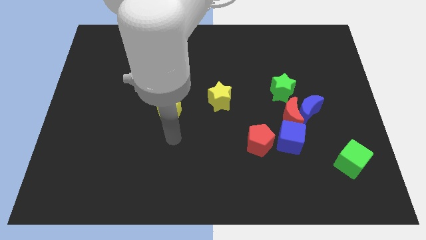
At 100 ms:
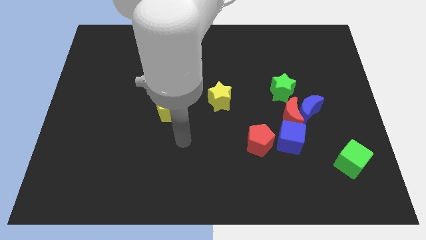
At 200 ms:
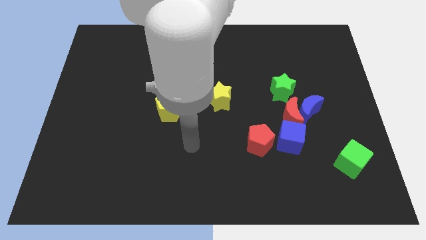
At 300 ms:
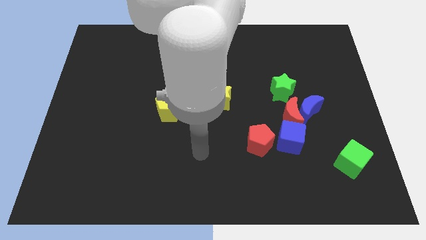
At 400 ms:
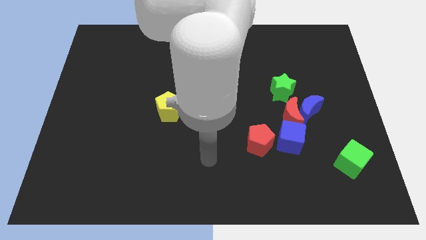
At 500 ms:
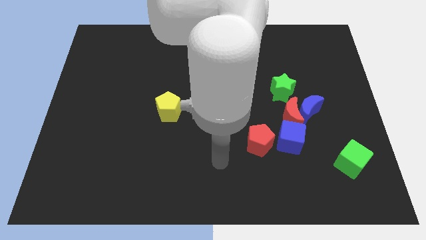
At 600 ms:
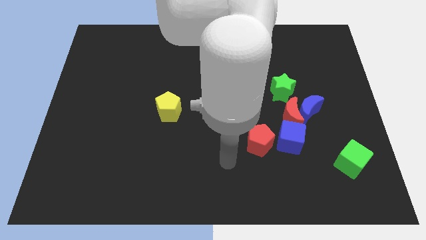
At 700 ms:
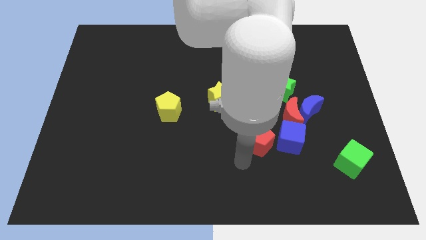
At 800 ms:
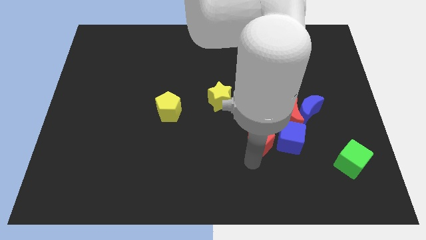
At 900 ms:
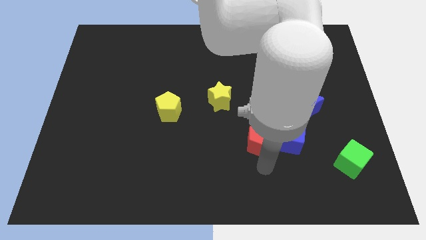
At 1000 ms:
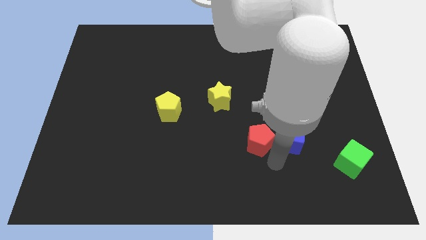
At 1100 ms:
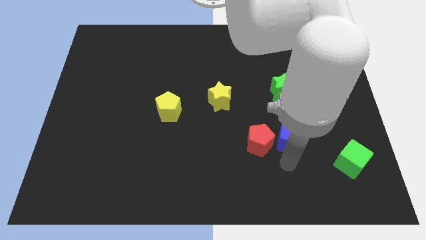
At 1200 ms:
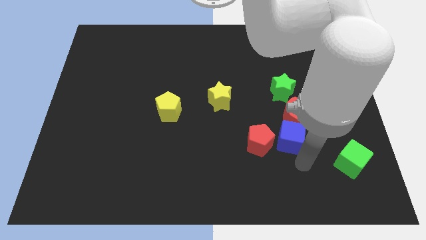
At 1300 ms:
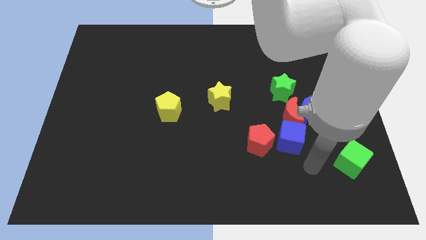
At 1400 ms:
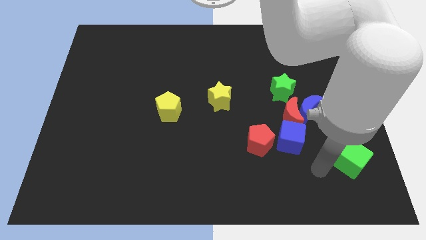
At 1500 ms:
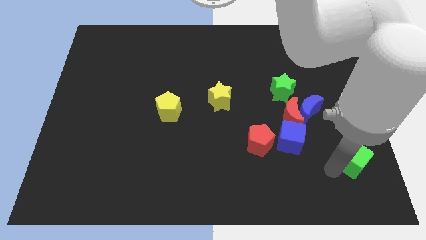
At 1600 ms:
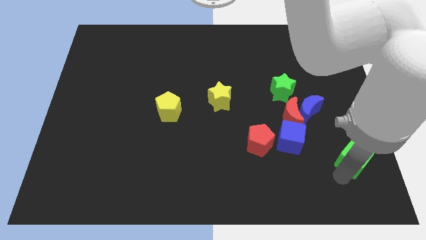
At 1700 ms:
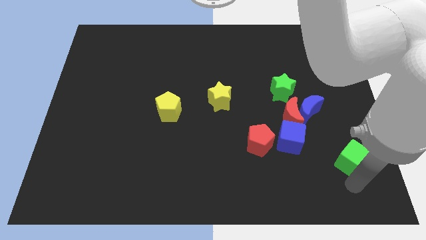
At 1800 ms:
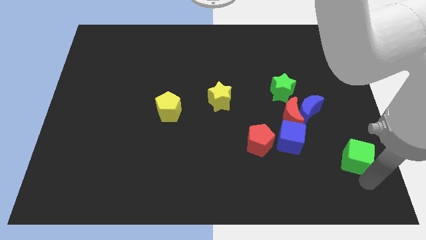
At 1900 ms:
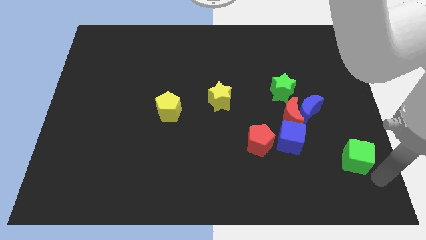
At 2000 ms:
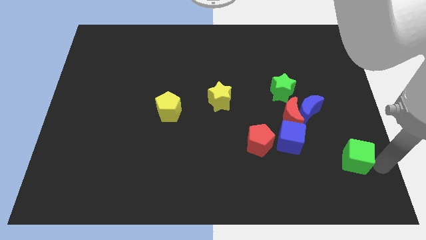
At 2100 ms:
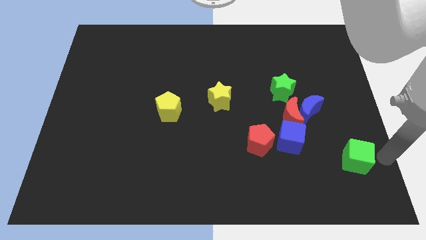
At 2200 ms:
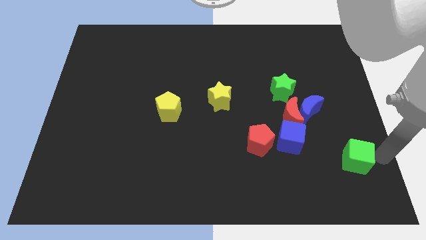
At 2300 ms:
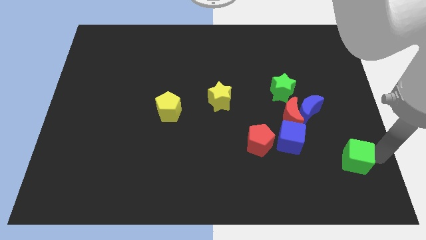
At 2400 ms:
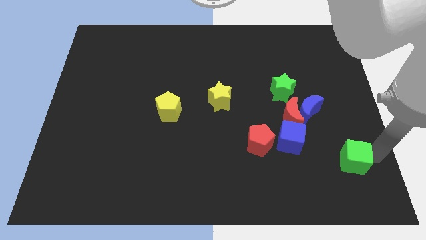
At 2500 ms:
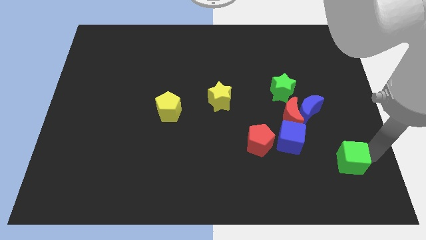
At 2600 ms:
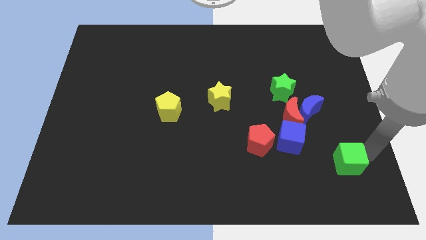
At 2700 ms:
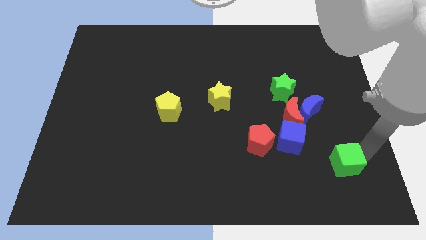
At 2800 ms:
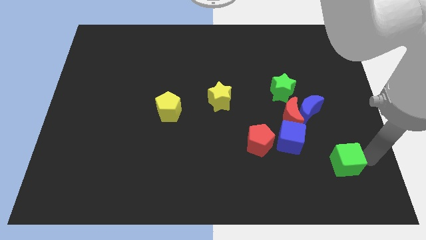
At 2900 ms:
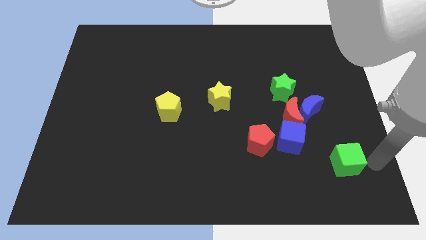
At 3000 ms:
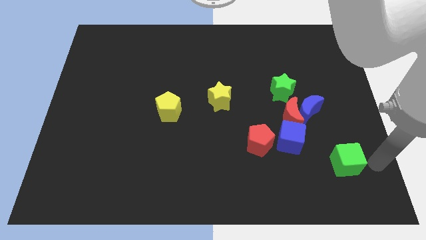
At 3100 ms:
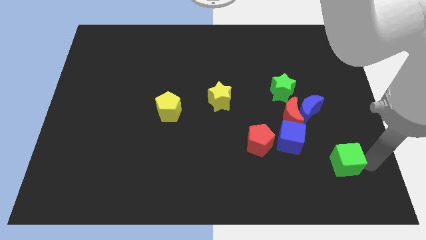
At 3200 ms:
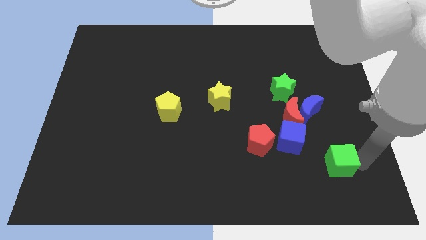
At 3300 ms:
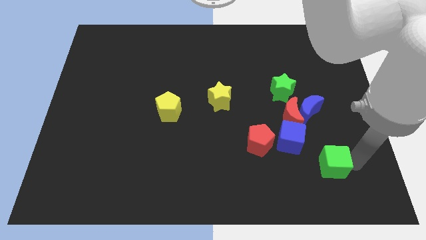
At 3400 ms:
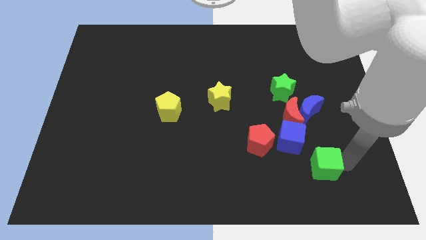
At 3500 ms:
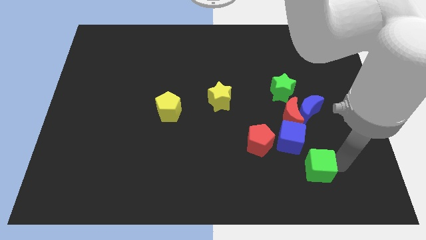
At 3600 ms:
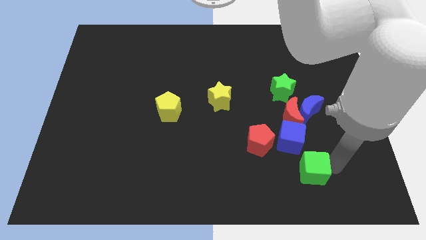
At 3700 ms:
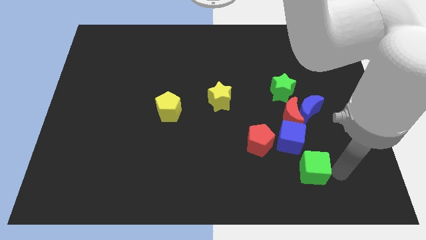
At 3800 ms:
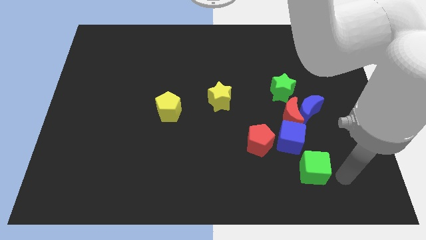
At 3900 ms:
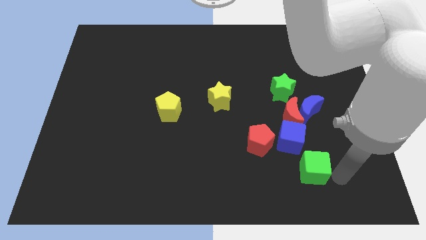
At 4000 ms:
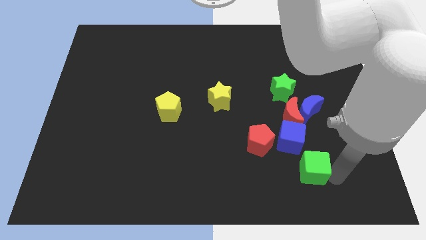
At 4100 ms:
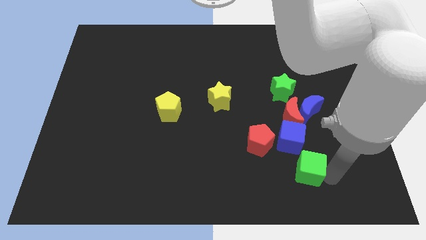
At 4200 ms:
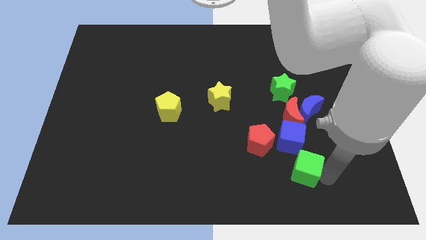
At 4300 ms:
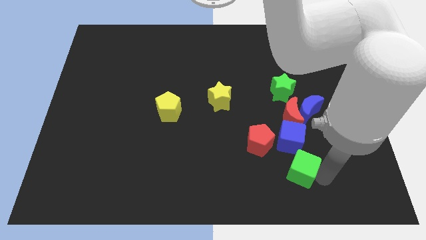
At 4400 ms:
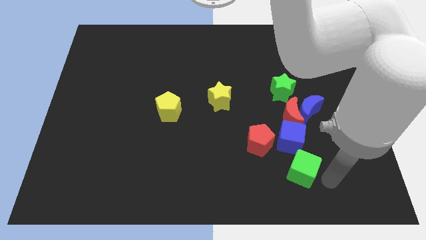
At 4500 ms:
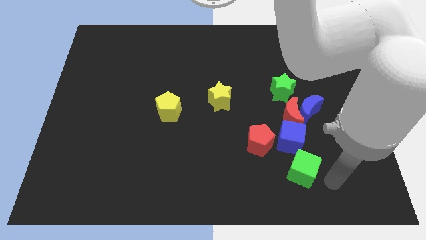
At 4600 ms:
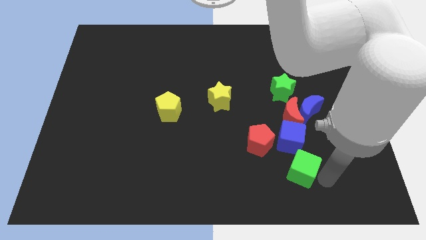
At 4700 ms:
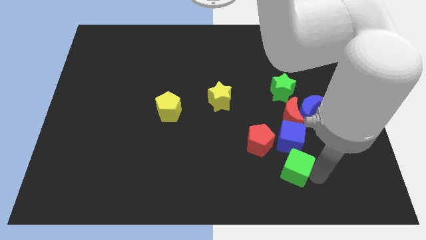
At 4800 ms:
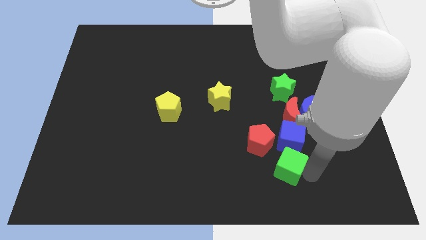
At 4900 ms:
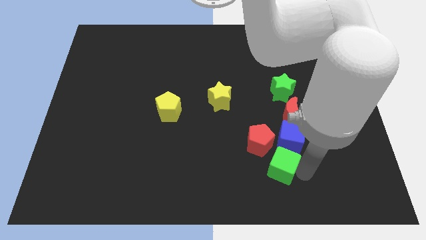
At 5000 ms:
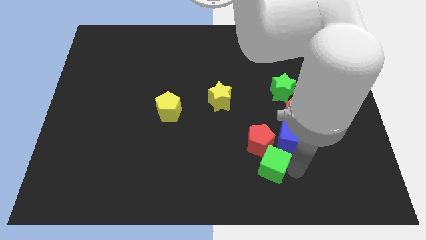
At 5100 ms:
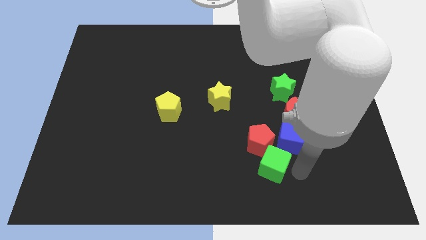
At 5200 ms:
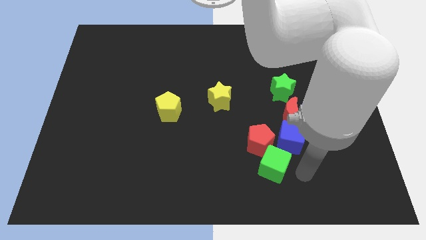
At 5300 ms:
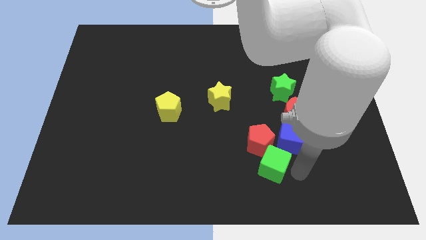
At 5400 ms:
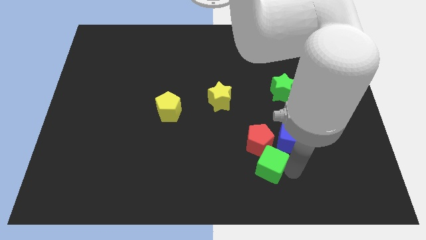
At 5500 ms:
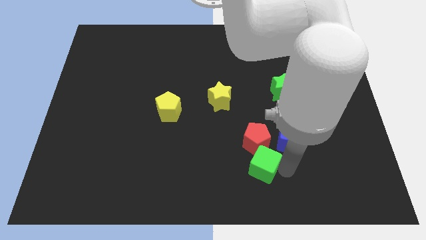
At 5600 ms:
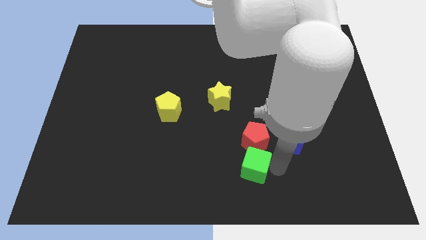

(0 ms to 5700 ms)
slide the green cube to the left

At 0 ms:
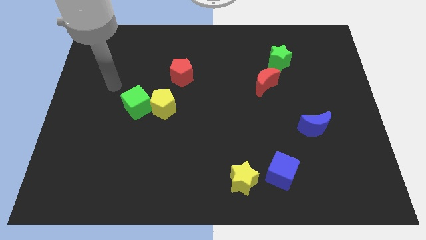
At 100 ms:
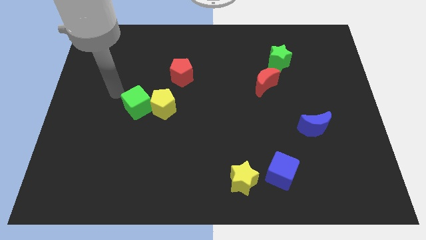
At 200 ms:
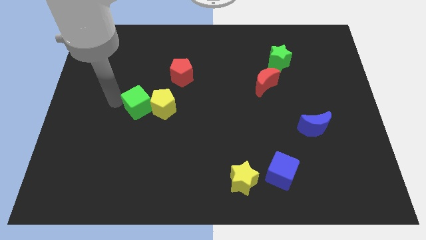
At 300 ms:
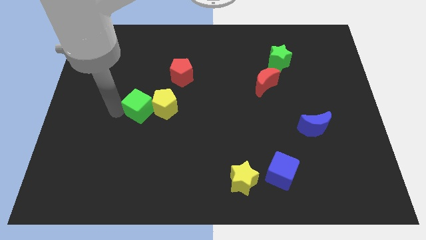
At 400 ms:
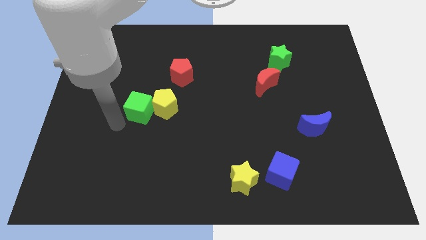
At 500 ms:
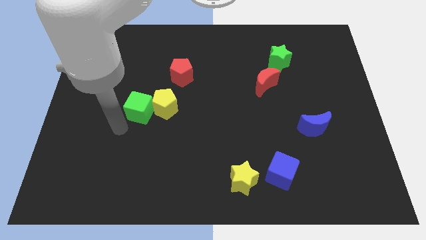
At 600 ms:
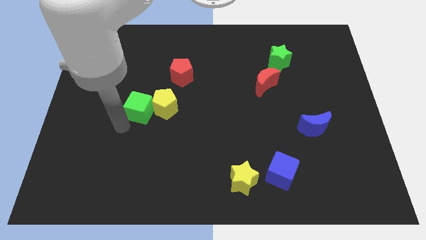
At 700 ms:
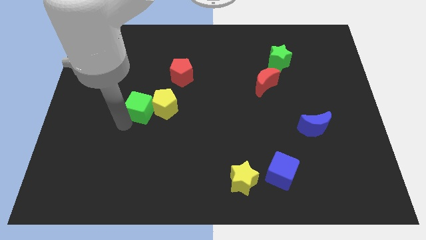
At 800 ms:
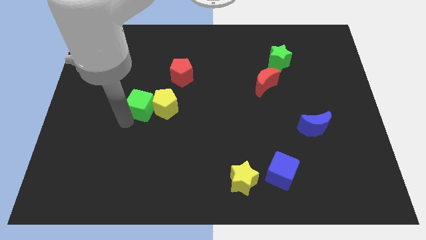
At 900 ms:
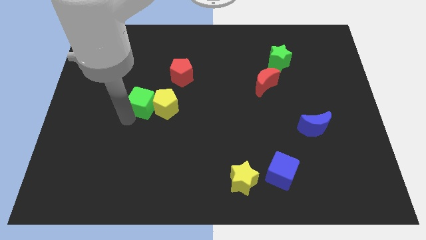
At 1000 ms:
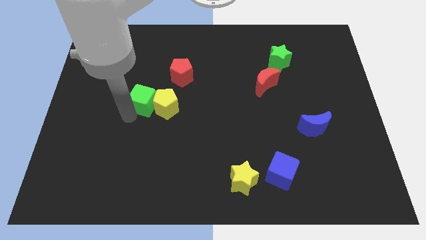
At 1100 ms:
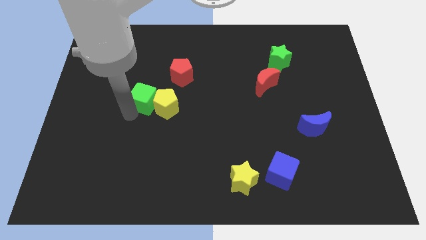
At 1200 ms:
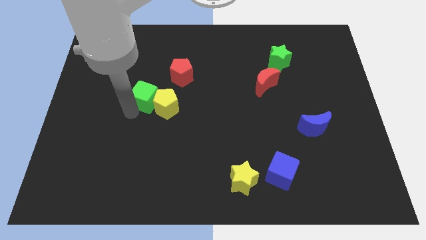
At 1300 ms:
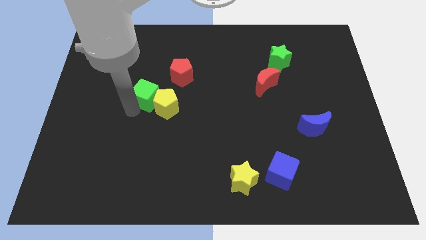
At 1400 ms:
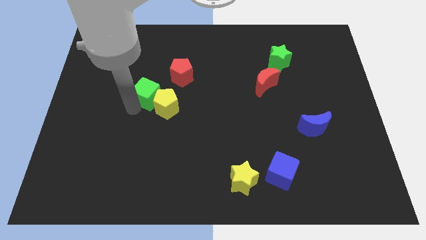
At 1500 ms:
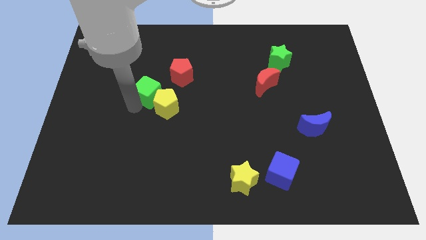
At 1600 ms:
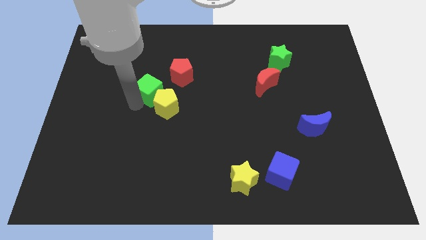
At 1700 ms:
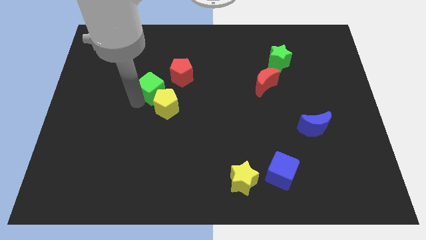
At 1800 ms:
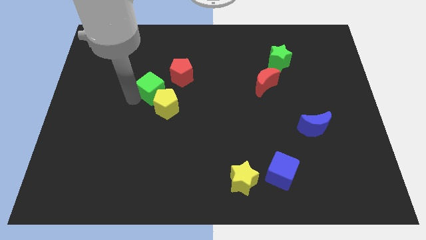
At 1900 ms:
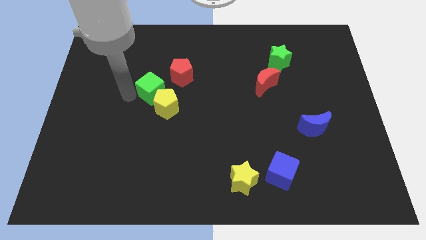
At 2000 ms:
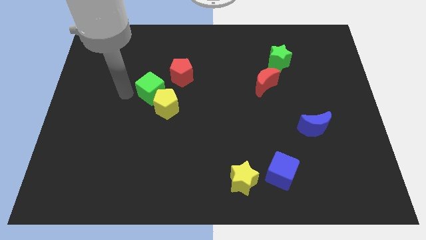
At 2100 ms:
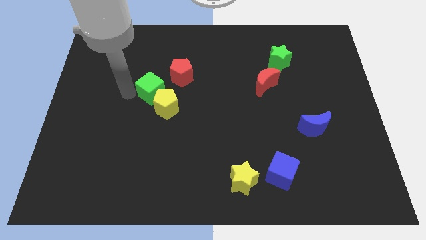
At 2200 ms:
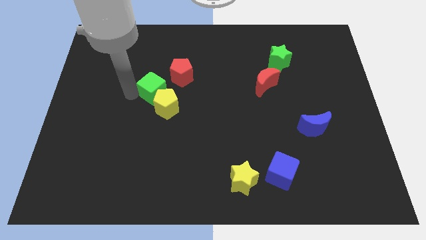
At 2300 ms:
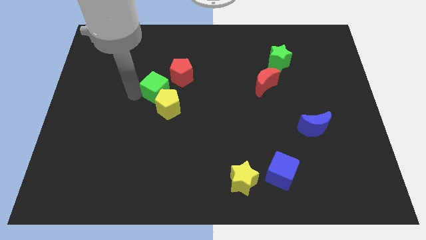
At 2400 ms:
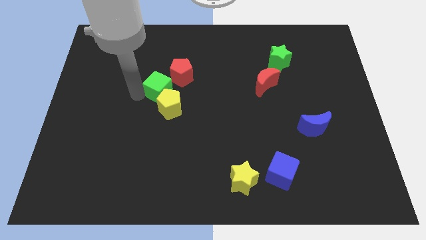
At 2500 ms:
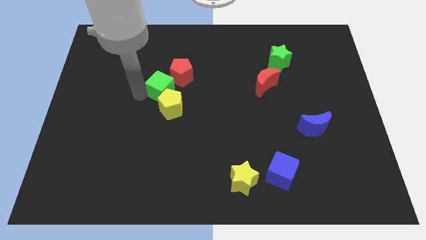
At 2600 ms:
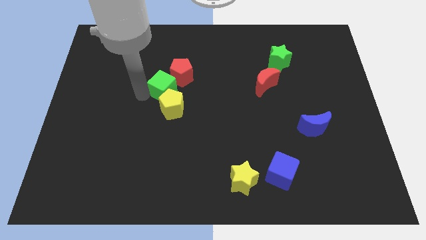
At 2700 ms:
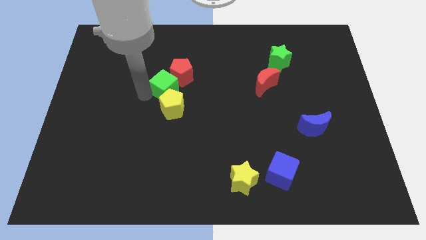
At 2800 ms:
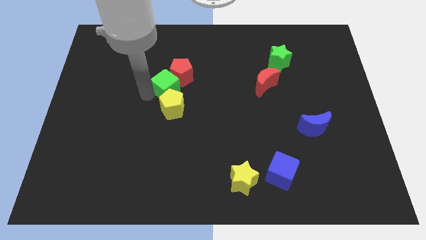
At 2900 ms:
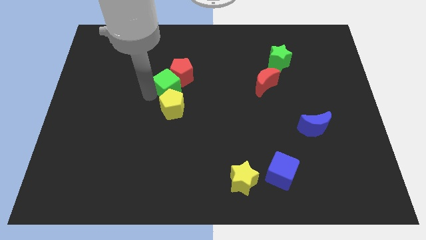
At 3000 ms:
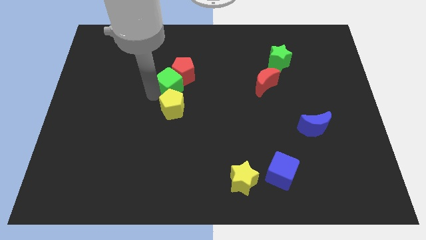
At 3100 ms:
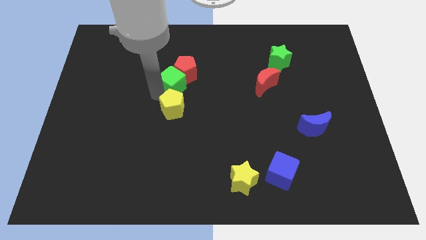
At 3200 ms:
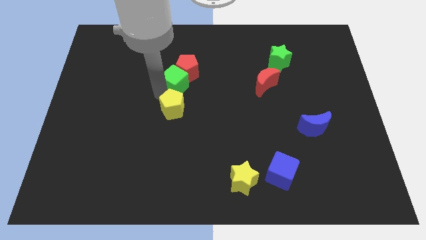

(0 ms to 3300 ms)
slide the green cube slightly right
